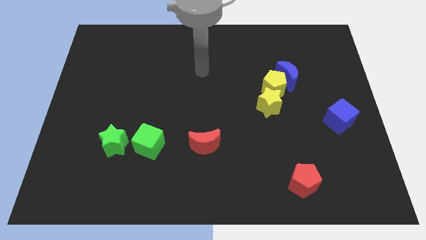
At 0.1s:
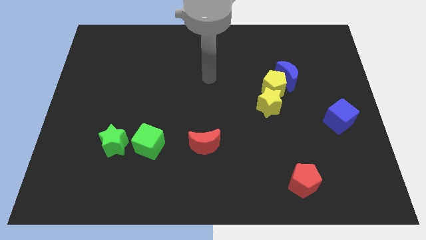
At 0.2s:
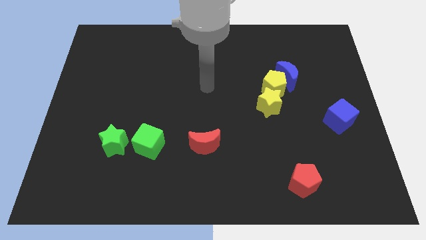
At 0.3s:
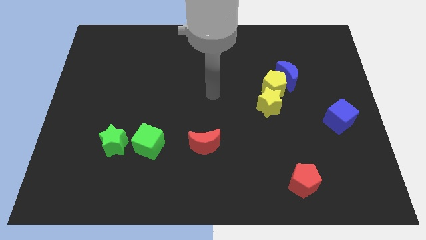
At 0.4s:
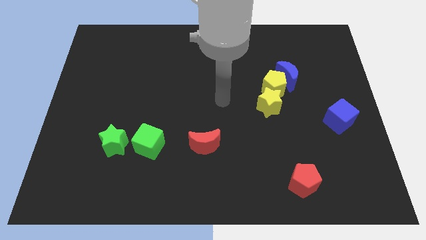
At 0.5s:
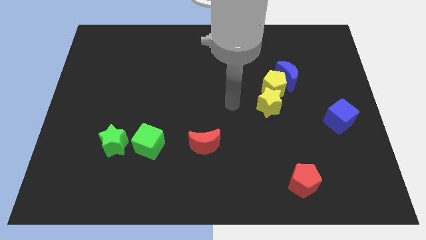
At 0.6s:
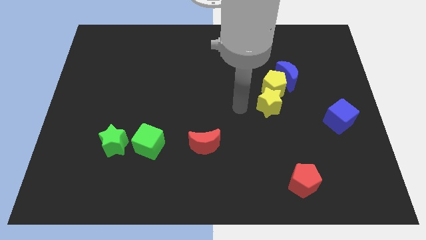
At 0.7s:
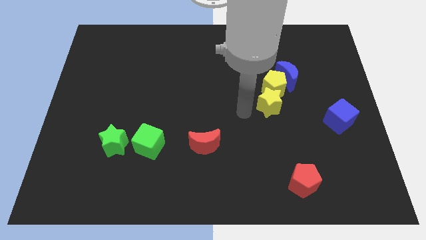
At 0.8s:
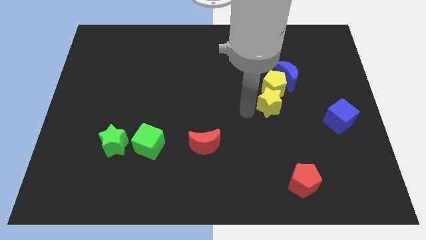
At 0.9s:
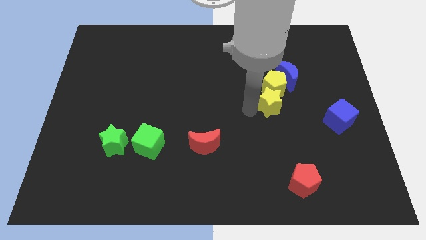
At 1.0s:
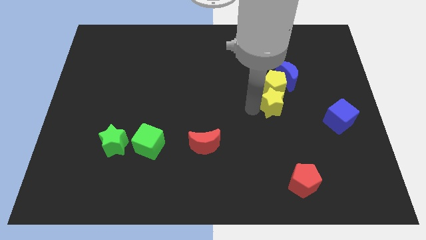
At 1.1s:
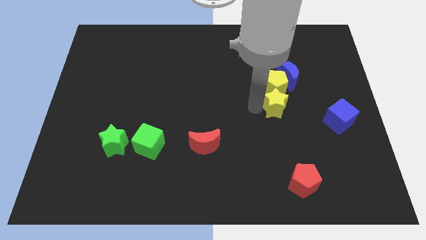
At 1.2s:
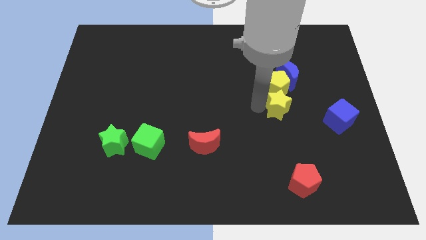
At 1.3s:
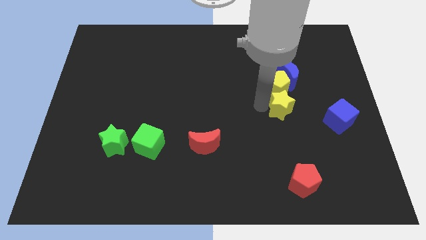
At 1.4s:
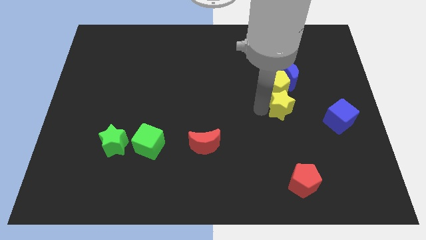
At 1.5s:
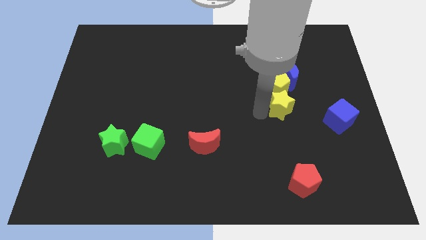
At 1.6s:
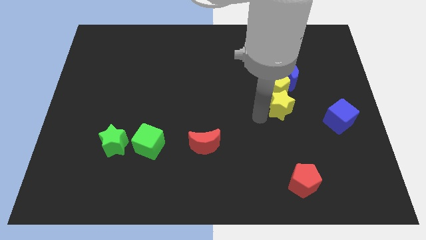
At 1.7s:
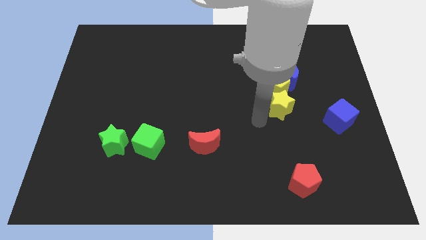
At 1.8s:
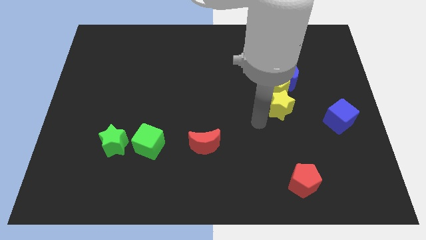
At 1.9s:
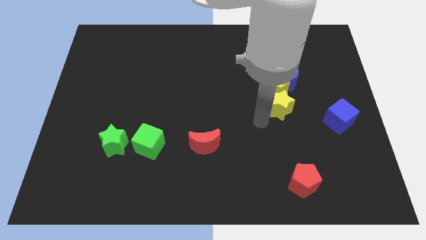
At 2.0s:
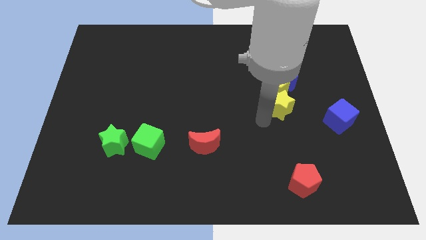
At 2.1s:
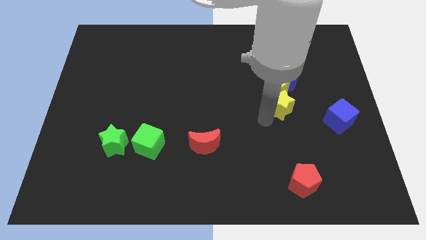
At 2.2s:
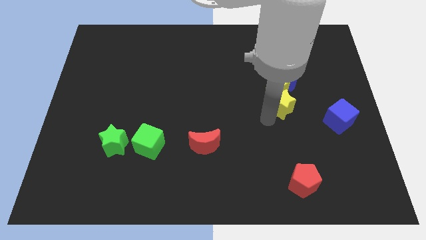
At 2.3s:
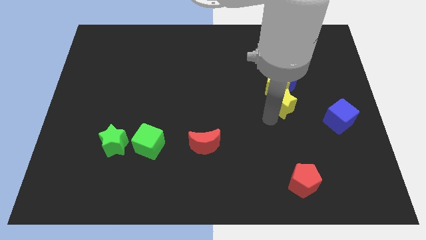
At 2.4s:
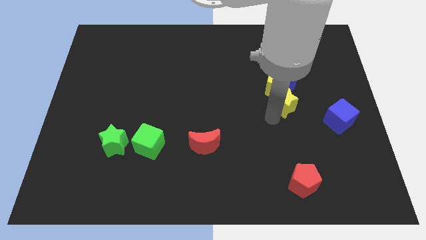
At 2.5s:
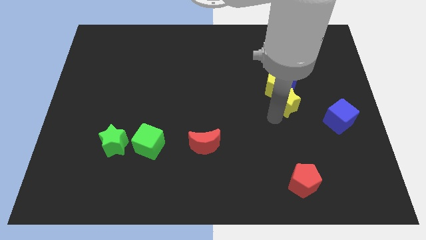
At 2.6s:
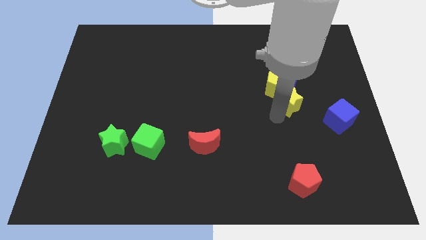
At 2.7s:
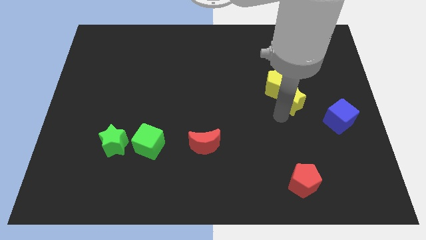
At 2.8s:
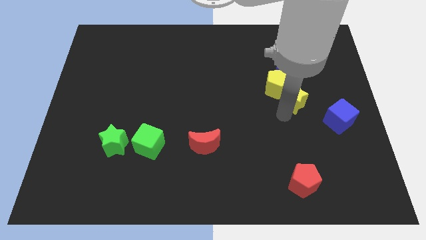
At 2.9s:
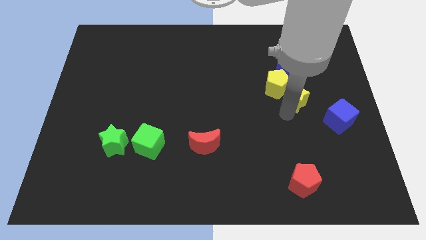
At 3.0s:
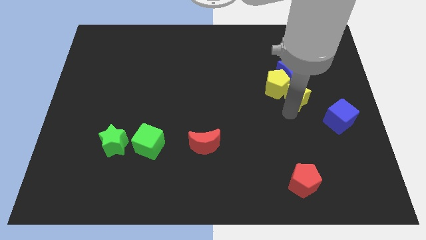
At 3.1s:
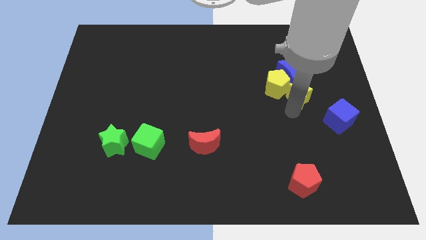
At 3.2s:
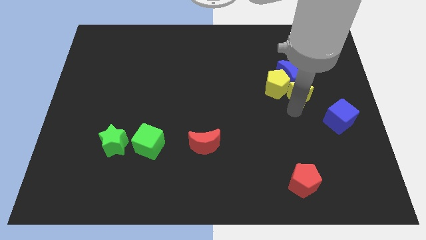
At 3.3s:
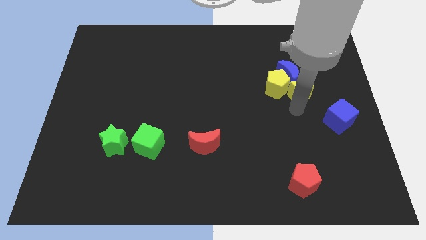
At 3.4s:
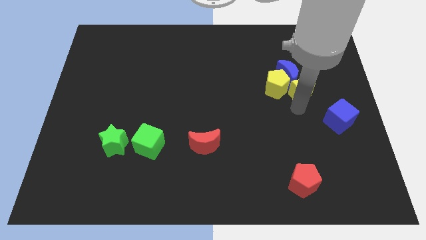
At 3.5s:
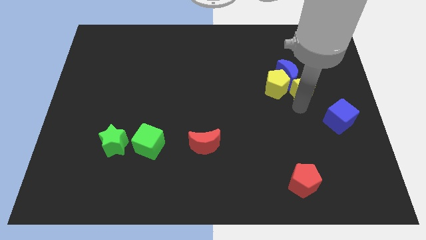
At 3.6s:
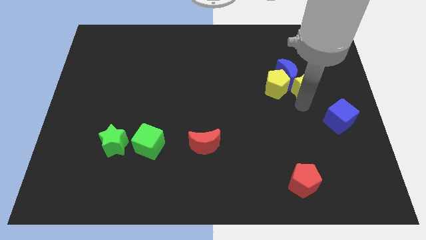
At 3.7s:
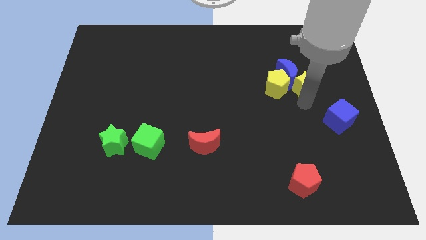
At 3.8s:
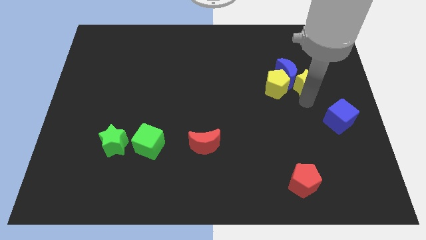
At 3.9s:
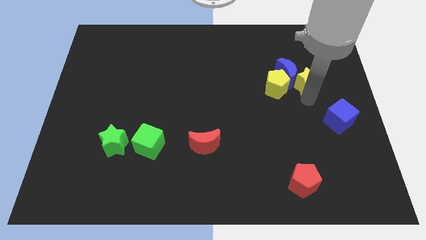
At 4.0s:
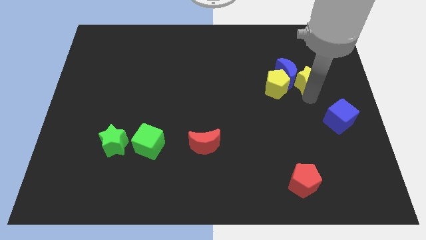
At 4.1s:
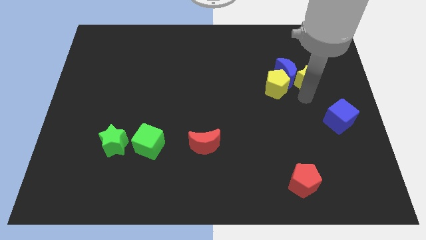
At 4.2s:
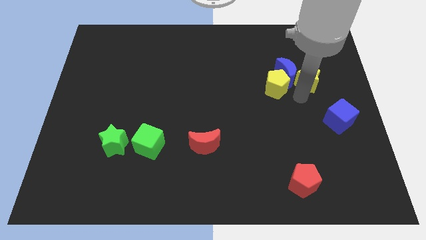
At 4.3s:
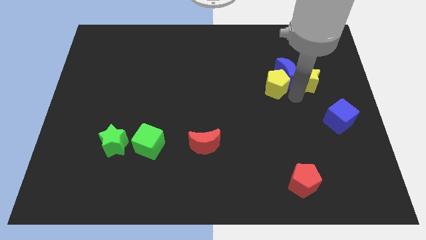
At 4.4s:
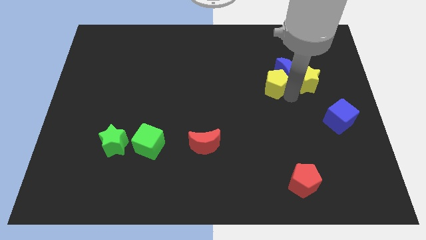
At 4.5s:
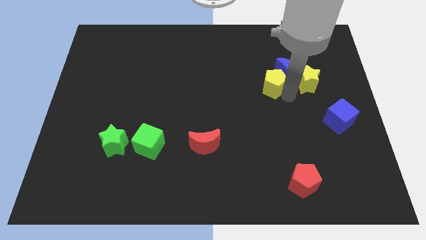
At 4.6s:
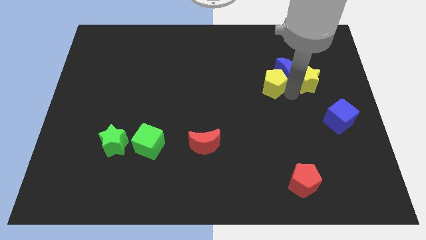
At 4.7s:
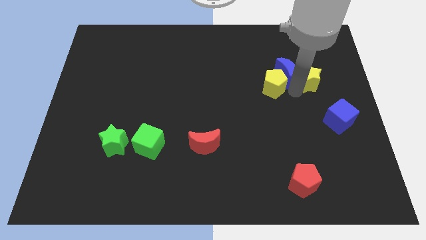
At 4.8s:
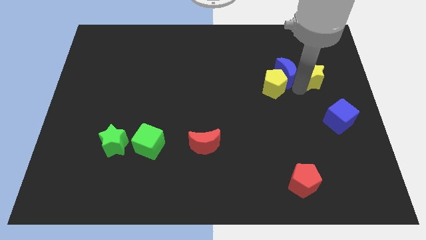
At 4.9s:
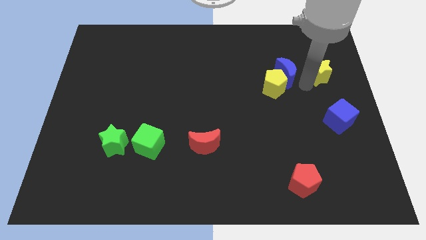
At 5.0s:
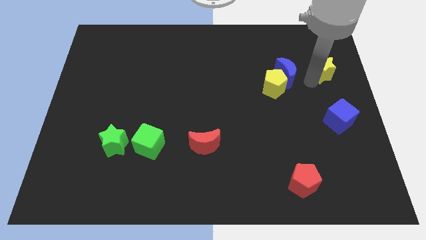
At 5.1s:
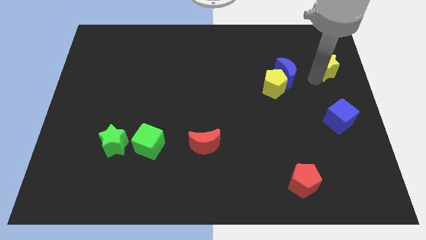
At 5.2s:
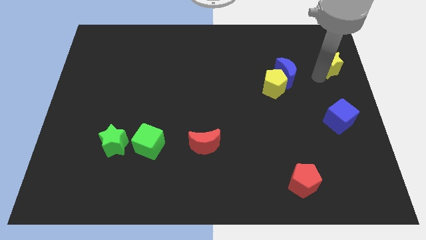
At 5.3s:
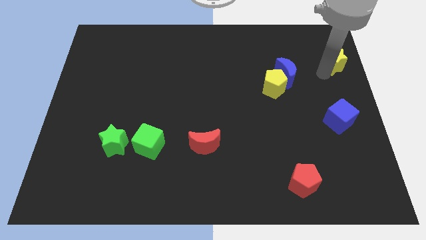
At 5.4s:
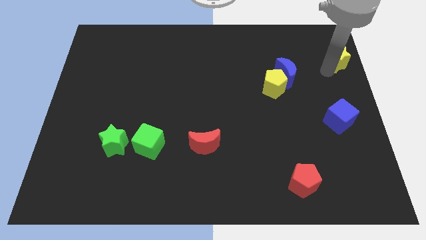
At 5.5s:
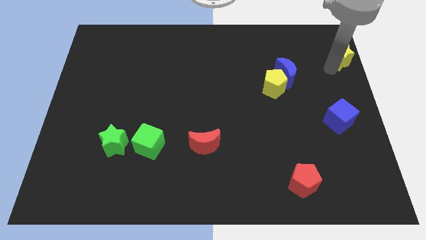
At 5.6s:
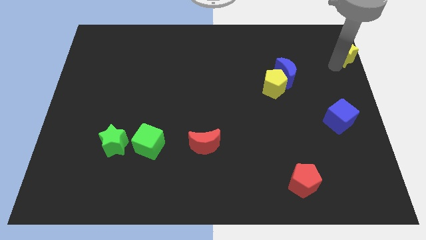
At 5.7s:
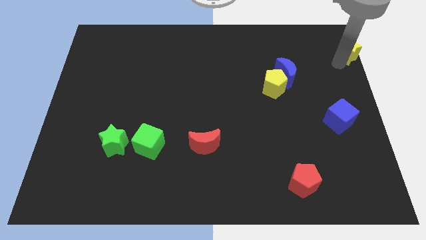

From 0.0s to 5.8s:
move the yellow star to the top right of the board

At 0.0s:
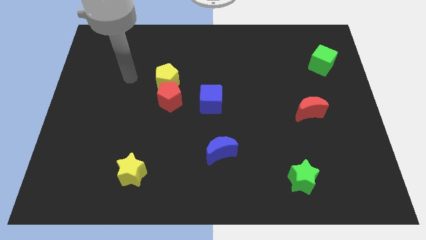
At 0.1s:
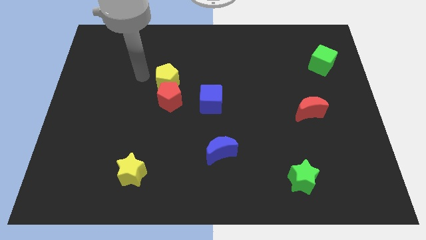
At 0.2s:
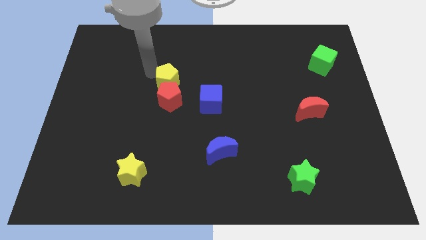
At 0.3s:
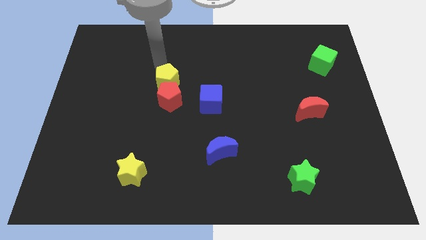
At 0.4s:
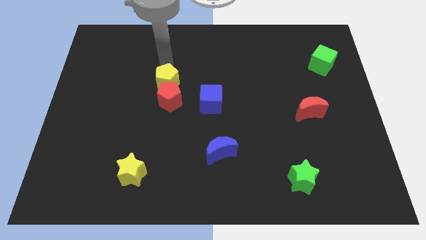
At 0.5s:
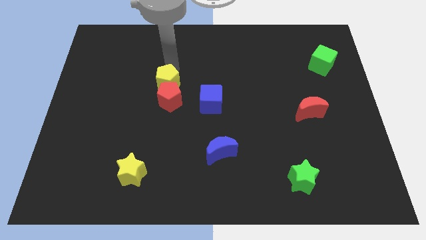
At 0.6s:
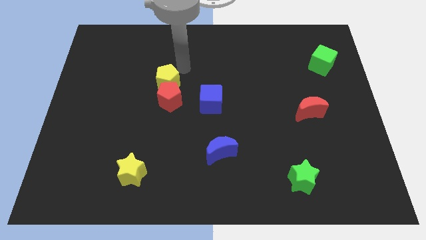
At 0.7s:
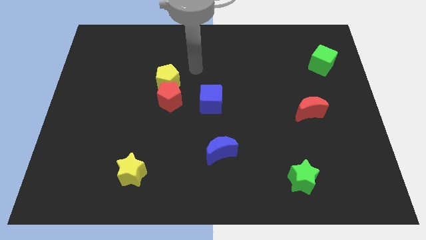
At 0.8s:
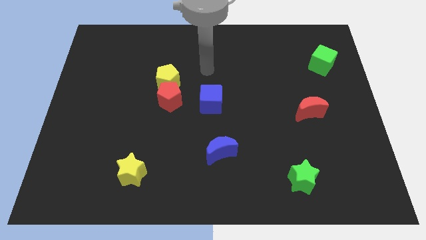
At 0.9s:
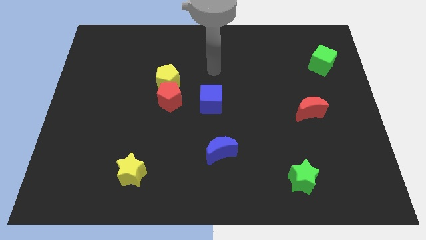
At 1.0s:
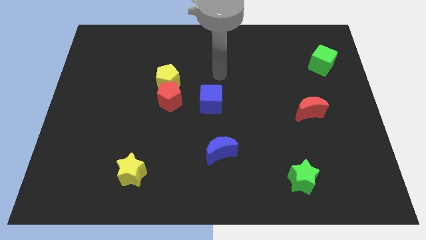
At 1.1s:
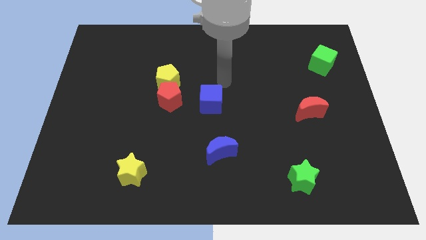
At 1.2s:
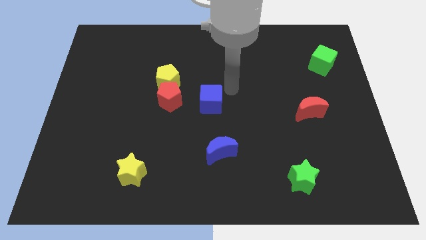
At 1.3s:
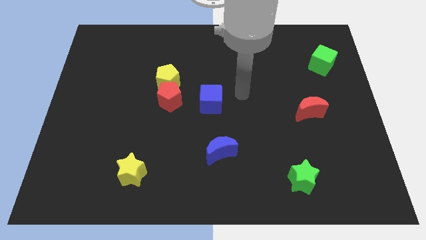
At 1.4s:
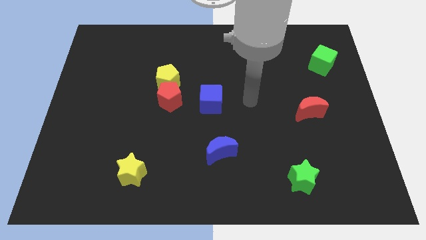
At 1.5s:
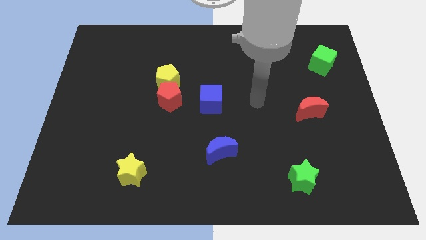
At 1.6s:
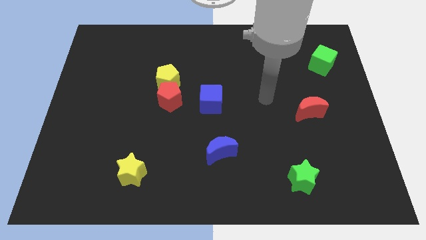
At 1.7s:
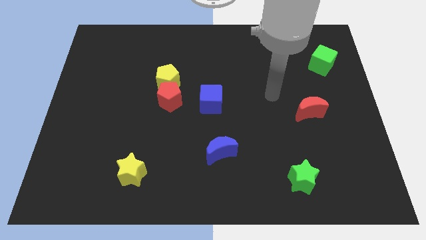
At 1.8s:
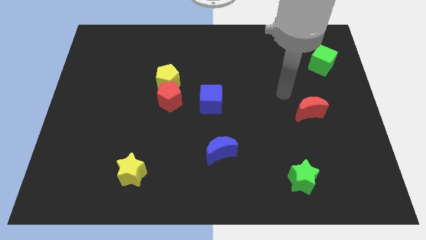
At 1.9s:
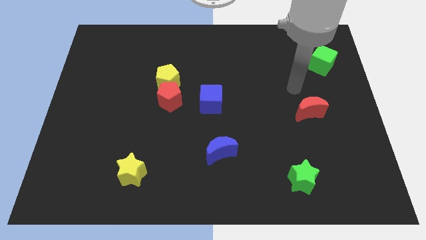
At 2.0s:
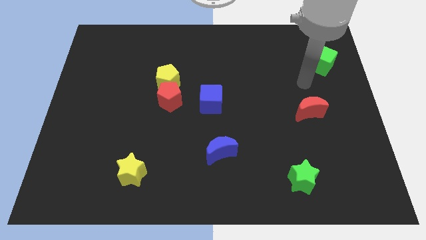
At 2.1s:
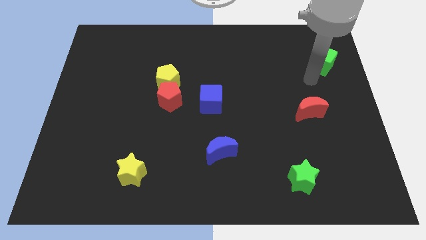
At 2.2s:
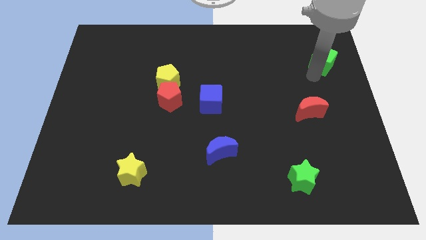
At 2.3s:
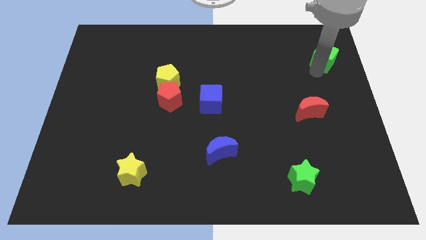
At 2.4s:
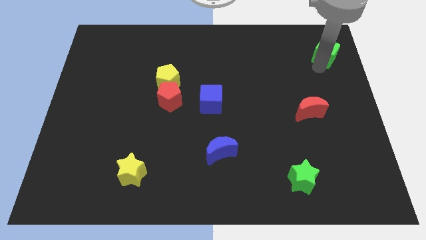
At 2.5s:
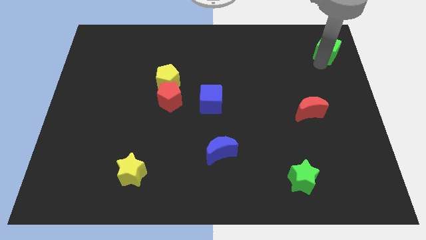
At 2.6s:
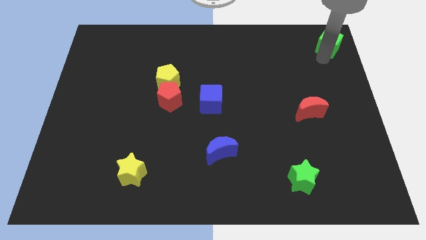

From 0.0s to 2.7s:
move the green cube to the upper right corner
